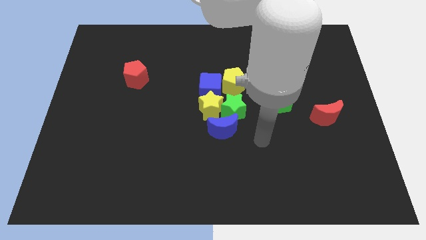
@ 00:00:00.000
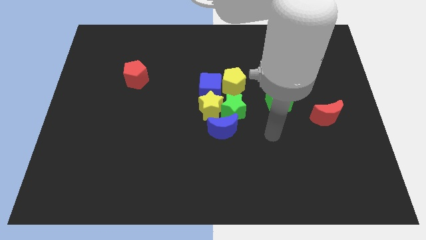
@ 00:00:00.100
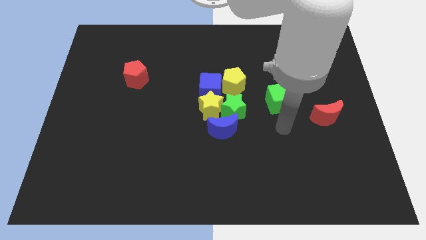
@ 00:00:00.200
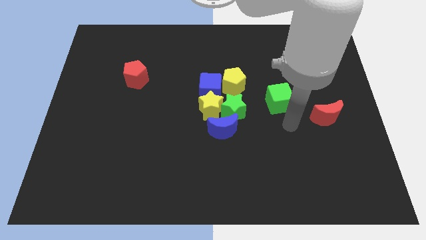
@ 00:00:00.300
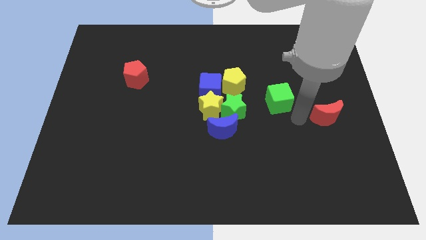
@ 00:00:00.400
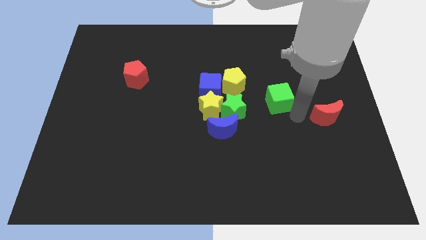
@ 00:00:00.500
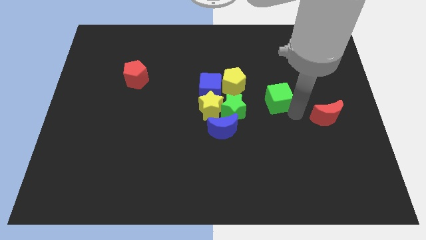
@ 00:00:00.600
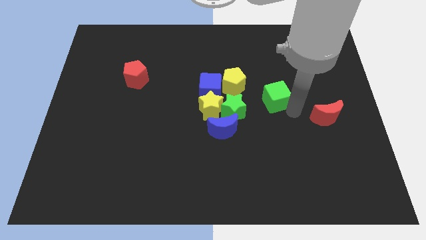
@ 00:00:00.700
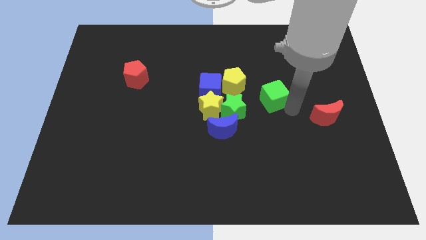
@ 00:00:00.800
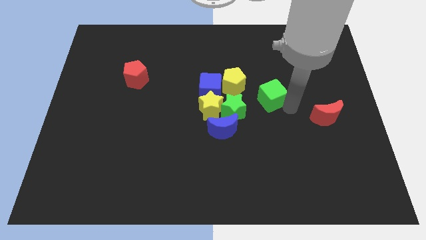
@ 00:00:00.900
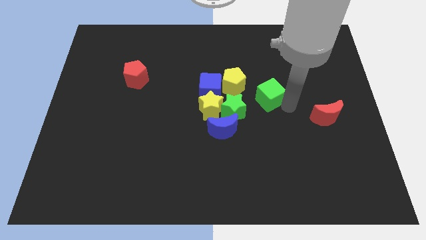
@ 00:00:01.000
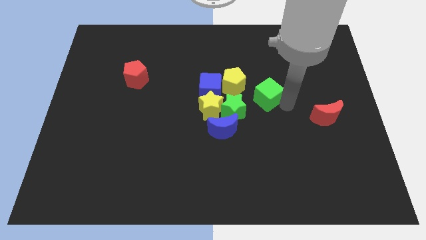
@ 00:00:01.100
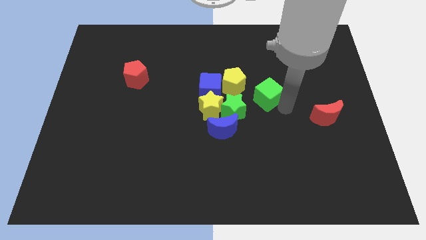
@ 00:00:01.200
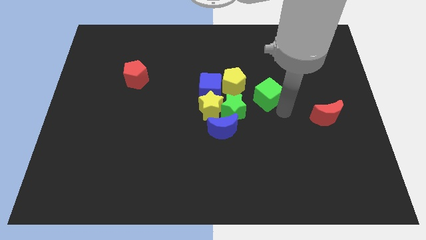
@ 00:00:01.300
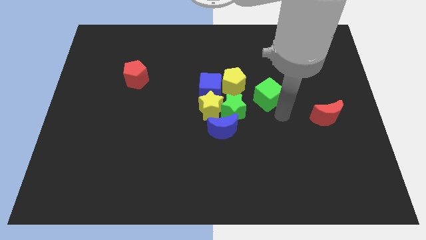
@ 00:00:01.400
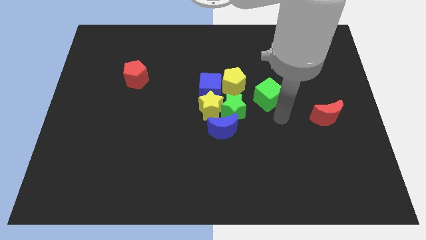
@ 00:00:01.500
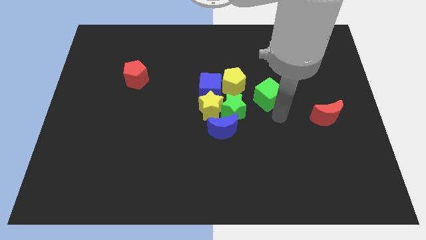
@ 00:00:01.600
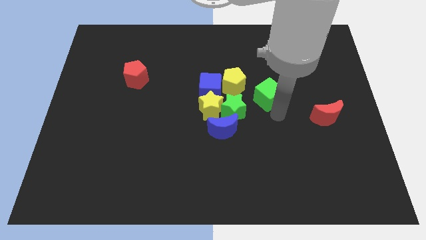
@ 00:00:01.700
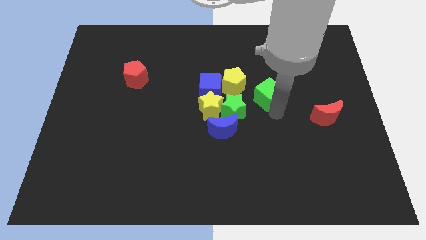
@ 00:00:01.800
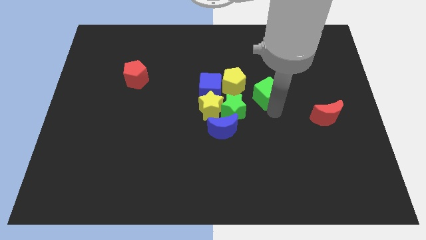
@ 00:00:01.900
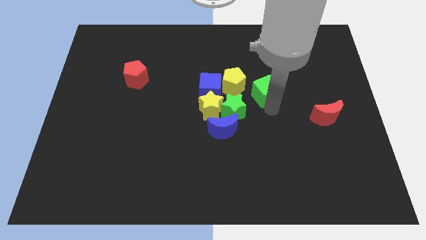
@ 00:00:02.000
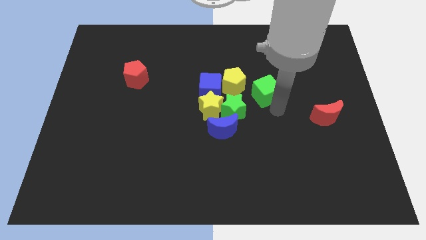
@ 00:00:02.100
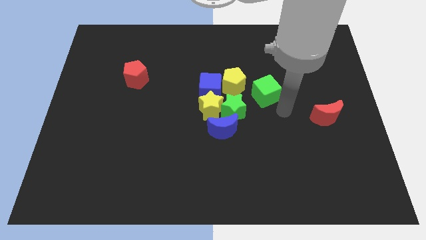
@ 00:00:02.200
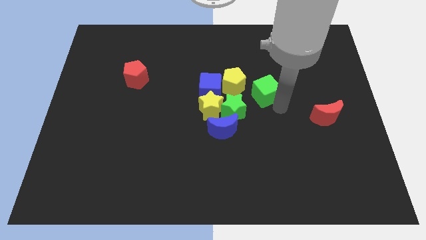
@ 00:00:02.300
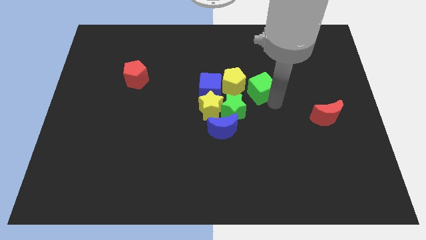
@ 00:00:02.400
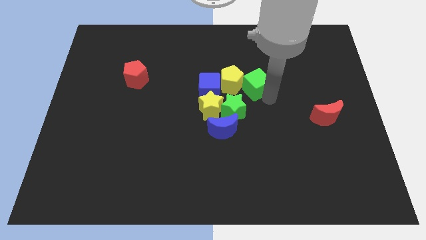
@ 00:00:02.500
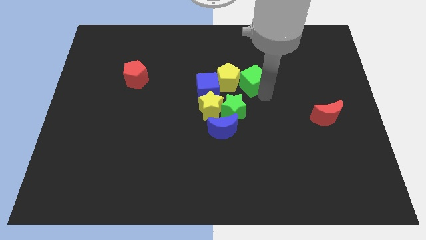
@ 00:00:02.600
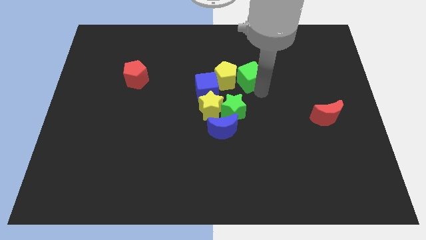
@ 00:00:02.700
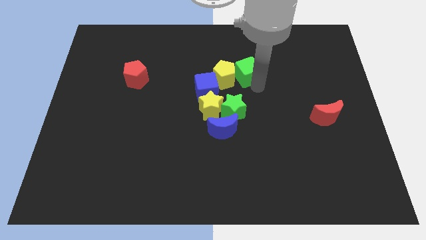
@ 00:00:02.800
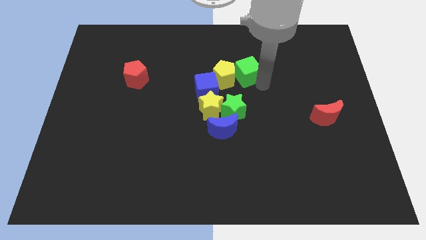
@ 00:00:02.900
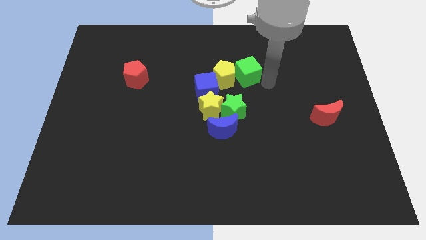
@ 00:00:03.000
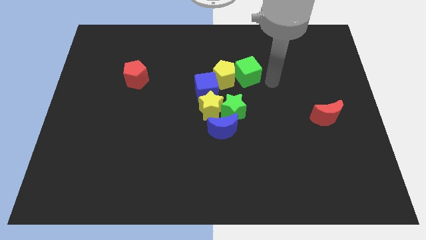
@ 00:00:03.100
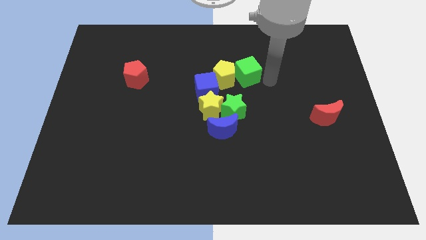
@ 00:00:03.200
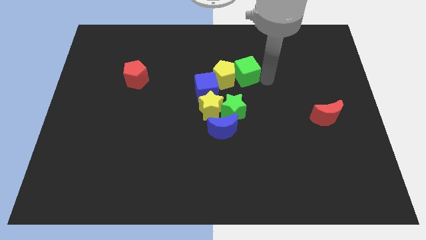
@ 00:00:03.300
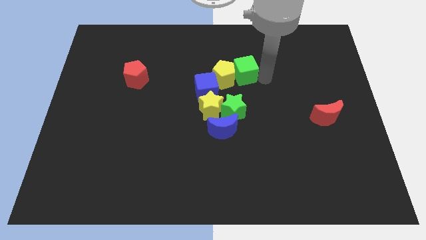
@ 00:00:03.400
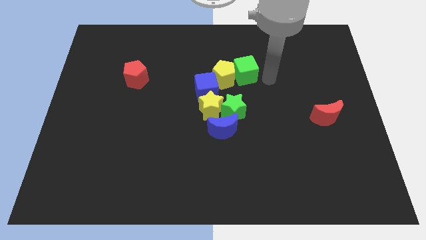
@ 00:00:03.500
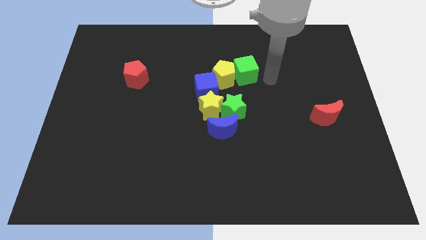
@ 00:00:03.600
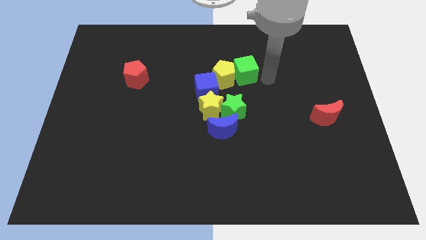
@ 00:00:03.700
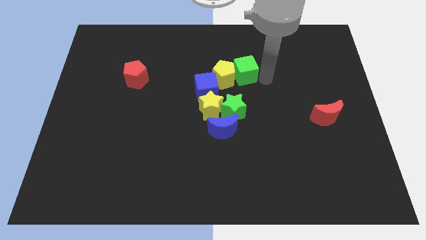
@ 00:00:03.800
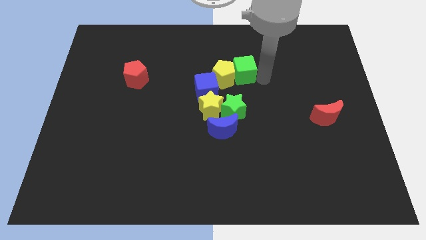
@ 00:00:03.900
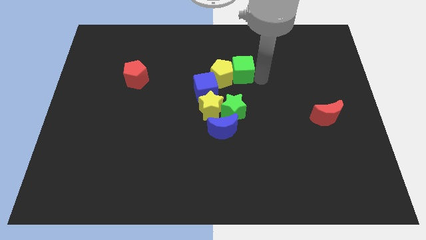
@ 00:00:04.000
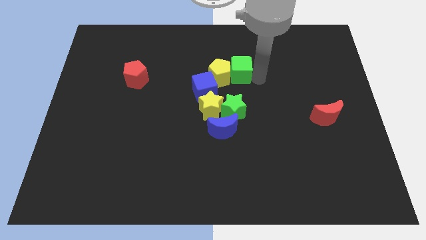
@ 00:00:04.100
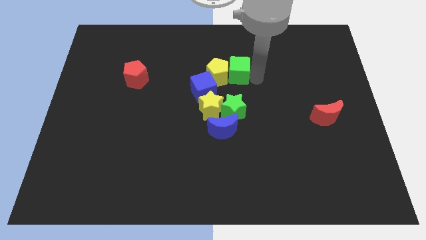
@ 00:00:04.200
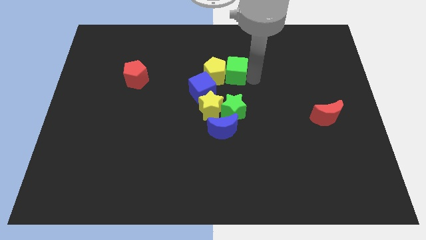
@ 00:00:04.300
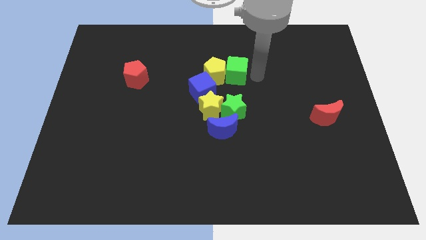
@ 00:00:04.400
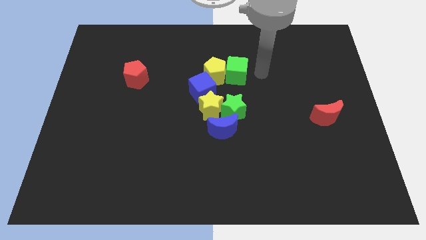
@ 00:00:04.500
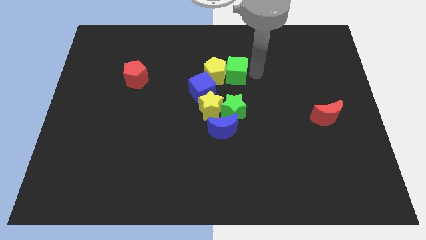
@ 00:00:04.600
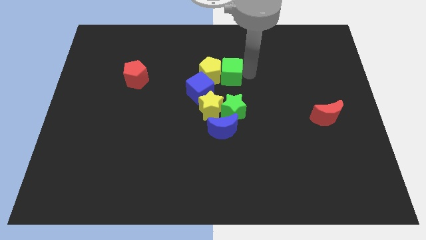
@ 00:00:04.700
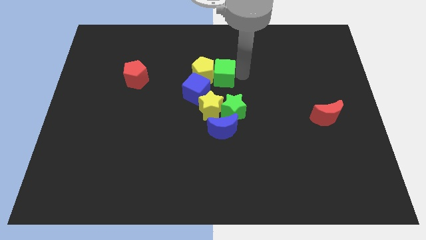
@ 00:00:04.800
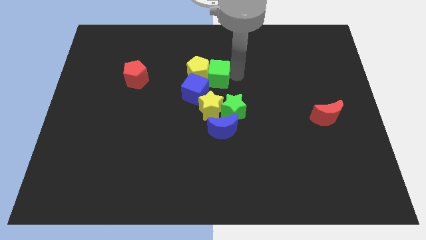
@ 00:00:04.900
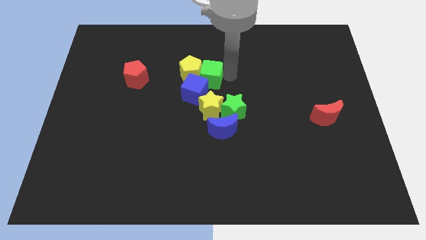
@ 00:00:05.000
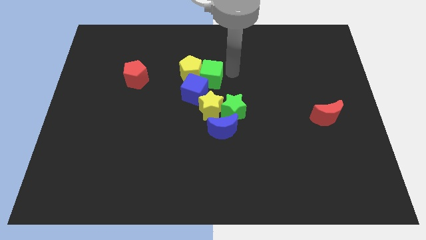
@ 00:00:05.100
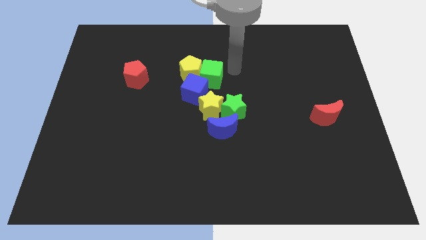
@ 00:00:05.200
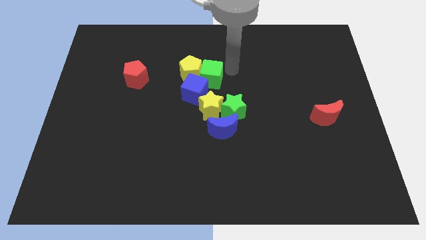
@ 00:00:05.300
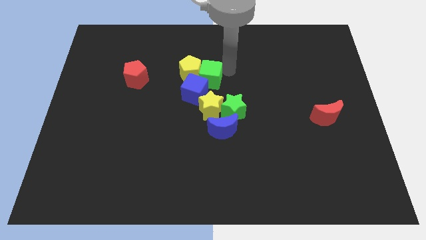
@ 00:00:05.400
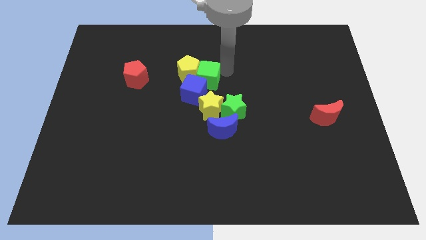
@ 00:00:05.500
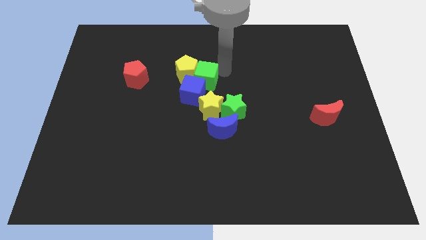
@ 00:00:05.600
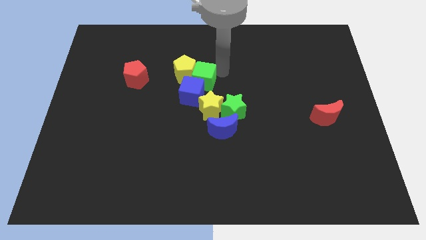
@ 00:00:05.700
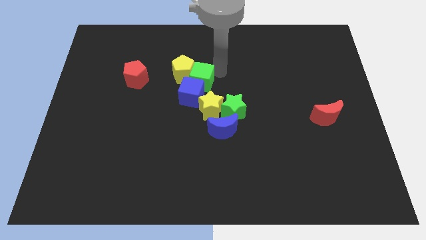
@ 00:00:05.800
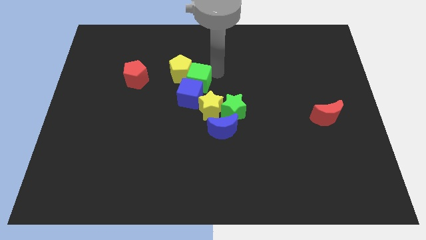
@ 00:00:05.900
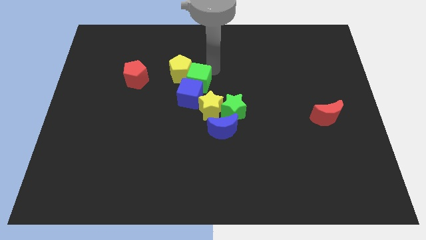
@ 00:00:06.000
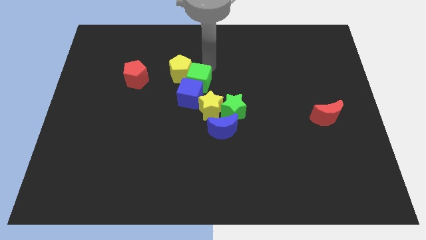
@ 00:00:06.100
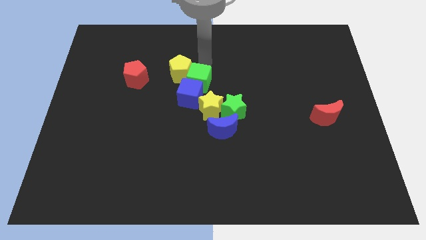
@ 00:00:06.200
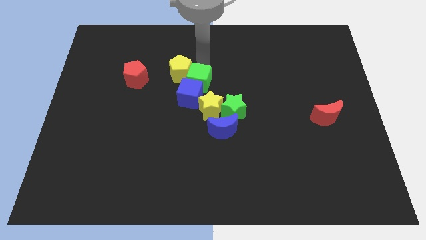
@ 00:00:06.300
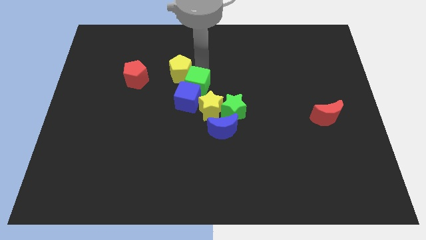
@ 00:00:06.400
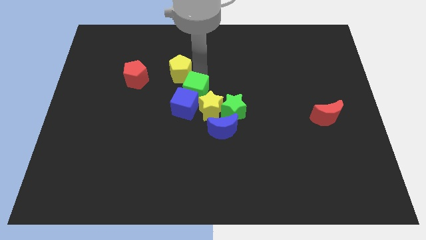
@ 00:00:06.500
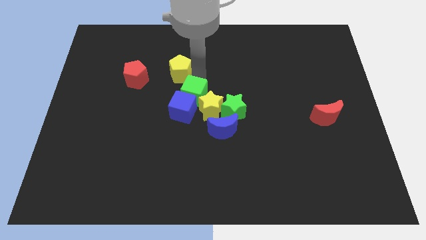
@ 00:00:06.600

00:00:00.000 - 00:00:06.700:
put the green cube close to the yellow star

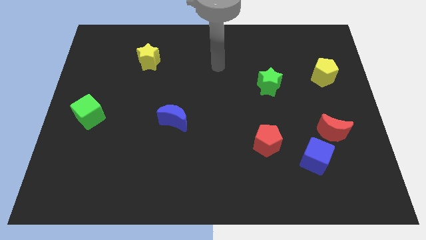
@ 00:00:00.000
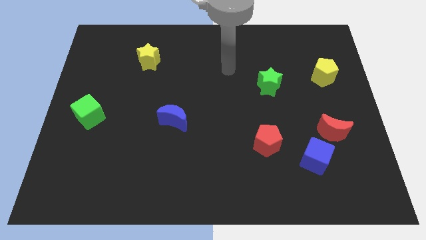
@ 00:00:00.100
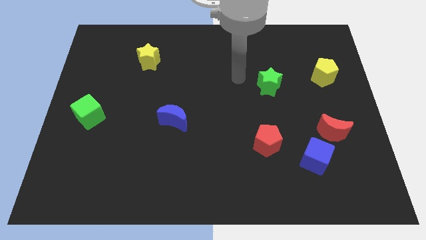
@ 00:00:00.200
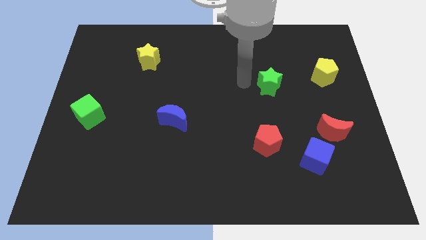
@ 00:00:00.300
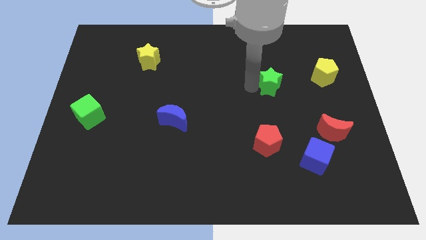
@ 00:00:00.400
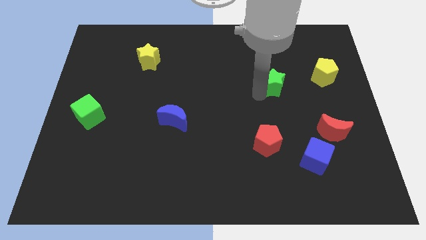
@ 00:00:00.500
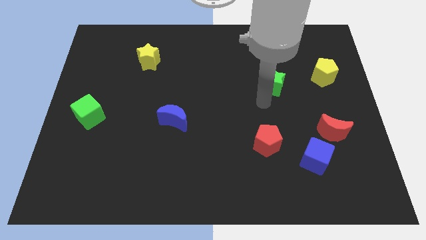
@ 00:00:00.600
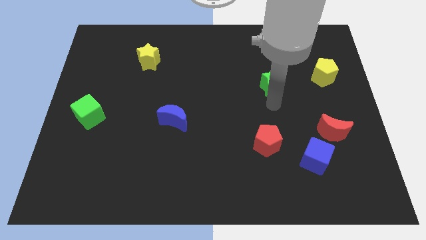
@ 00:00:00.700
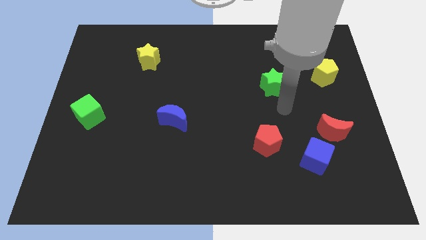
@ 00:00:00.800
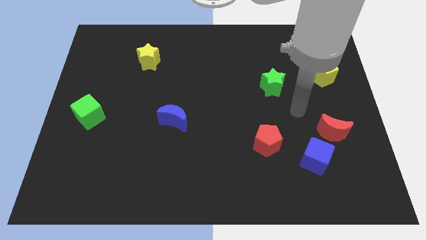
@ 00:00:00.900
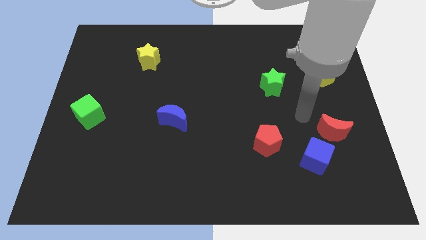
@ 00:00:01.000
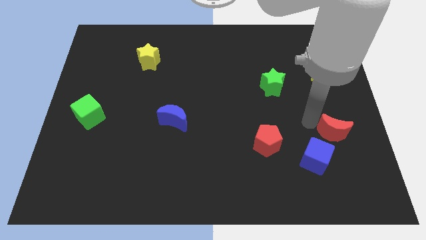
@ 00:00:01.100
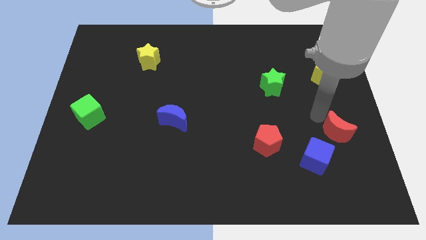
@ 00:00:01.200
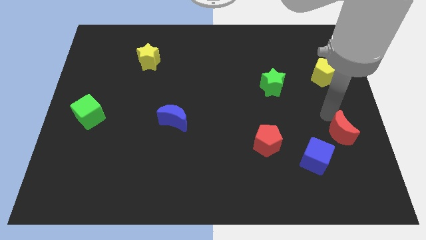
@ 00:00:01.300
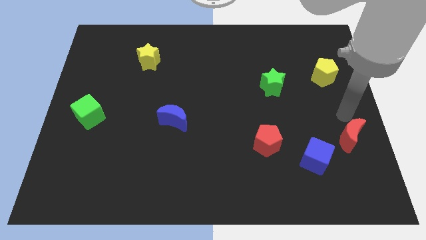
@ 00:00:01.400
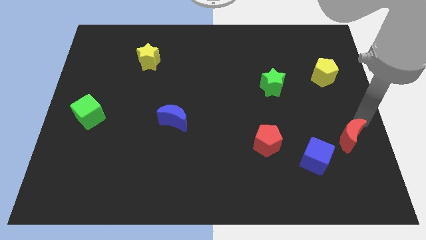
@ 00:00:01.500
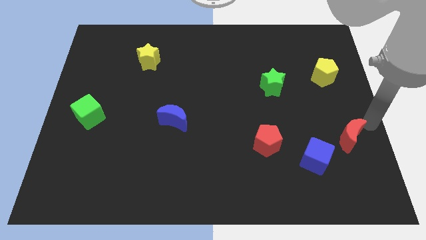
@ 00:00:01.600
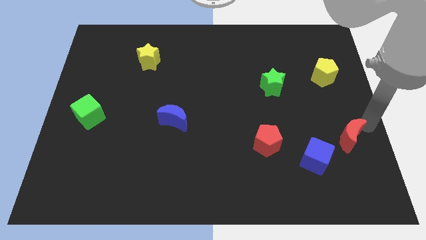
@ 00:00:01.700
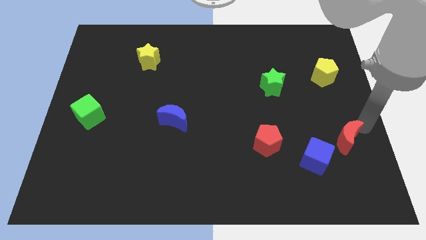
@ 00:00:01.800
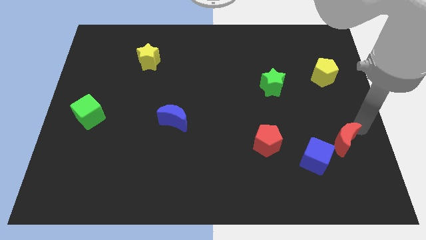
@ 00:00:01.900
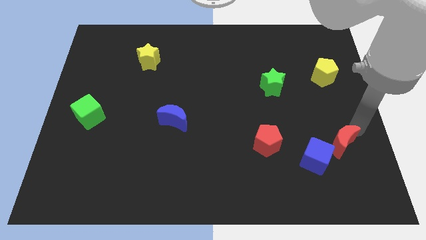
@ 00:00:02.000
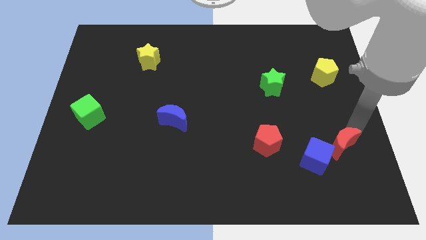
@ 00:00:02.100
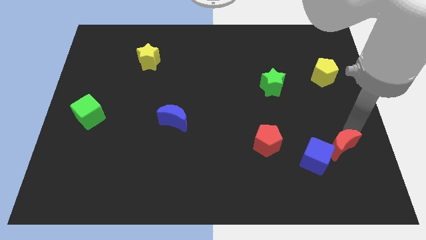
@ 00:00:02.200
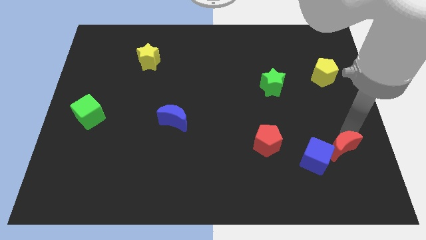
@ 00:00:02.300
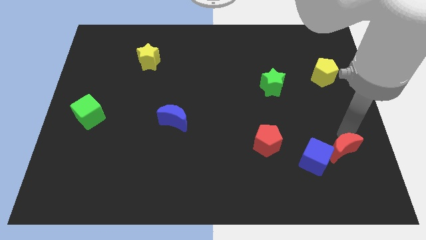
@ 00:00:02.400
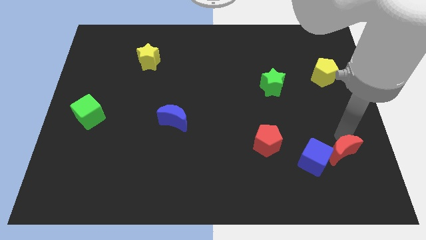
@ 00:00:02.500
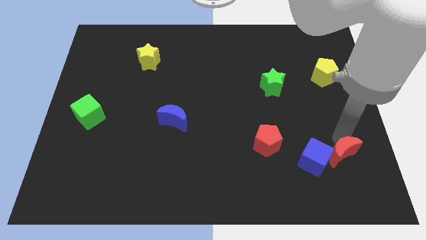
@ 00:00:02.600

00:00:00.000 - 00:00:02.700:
slide the red moon close to the blue cube
